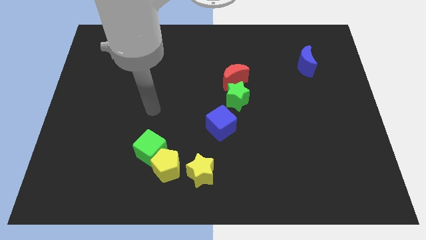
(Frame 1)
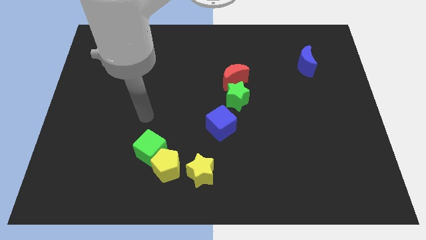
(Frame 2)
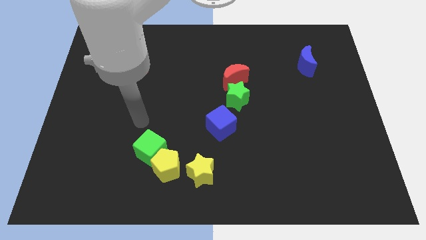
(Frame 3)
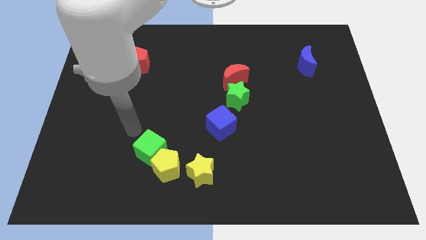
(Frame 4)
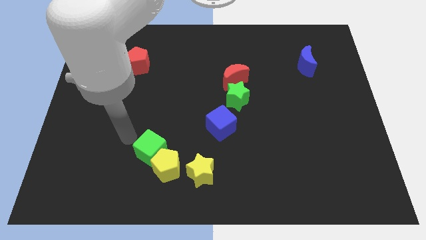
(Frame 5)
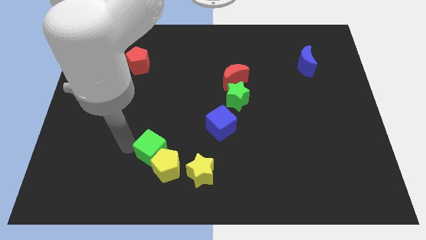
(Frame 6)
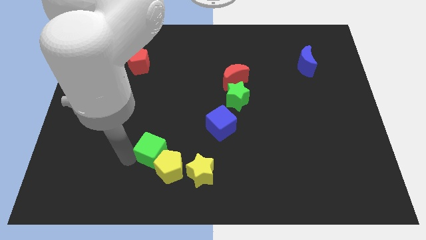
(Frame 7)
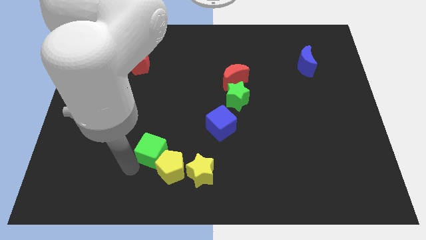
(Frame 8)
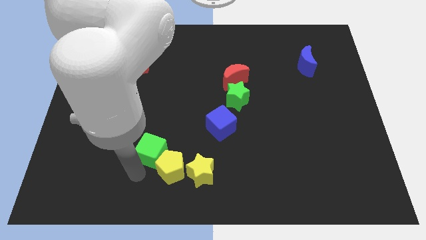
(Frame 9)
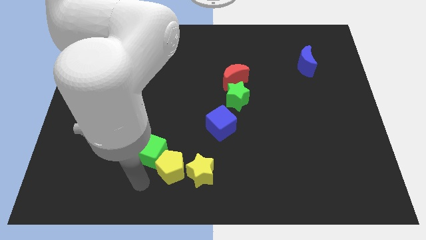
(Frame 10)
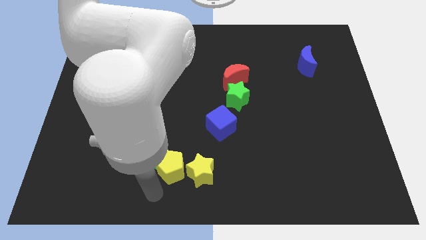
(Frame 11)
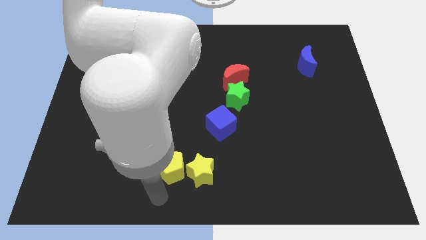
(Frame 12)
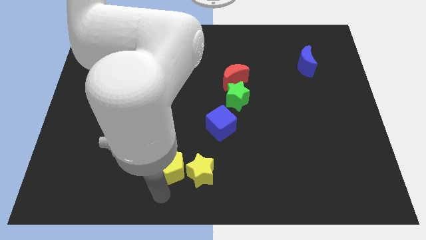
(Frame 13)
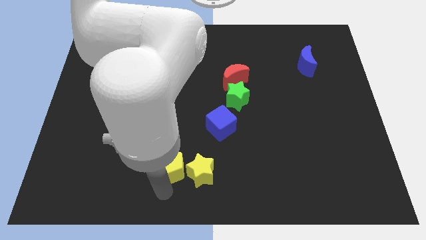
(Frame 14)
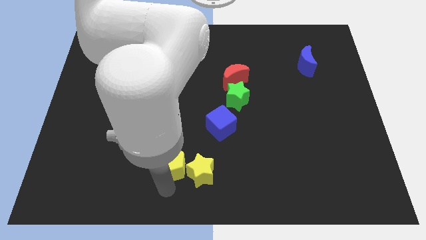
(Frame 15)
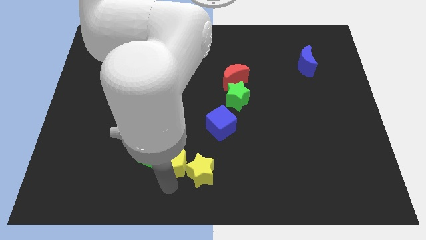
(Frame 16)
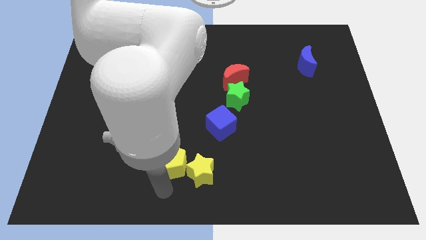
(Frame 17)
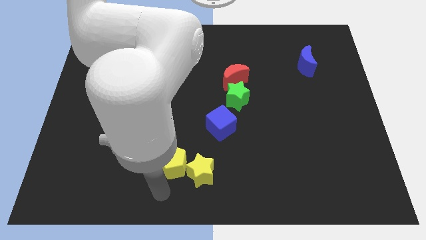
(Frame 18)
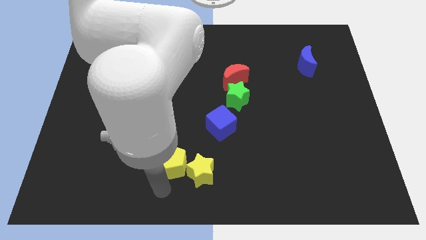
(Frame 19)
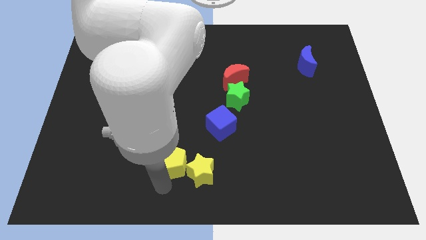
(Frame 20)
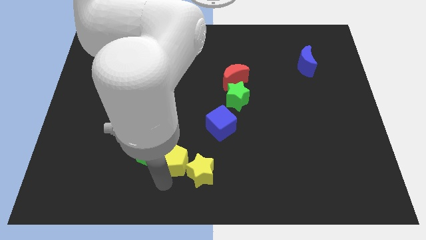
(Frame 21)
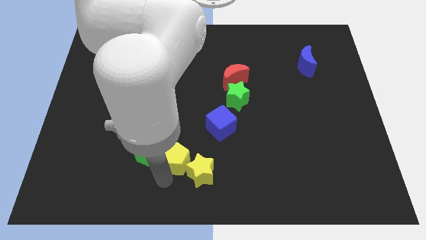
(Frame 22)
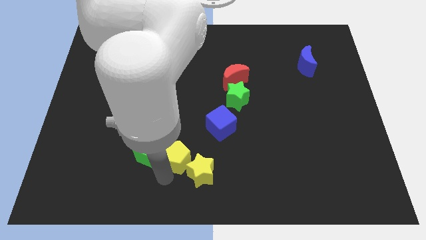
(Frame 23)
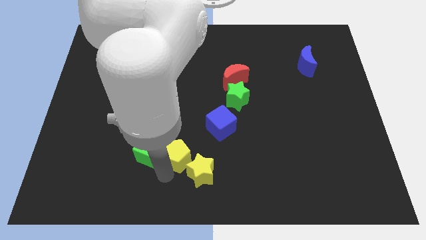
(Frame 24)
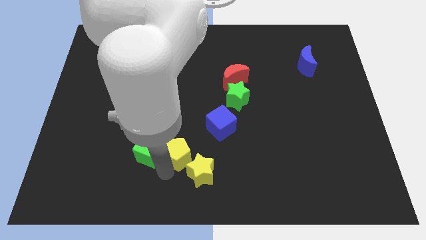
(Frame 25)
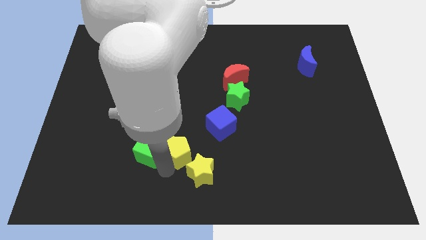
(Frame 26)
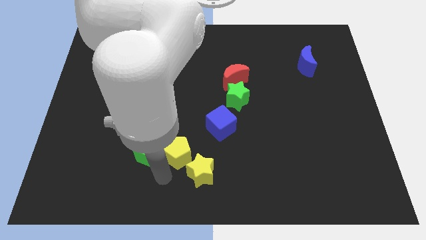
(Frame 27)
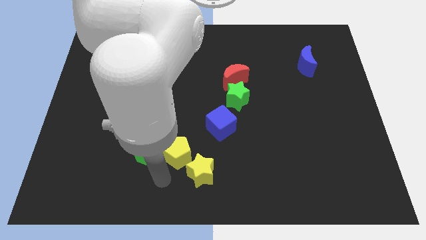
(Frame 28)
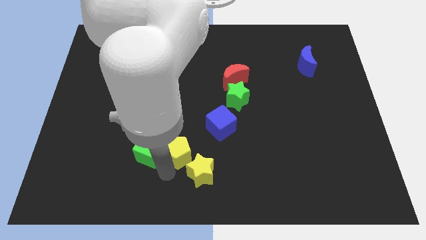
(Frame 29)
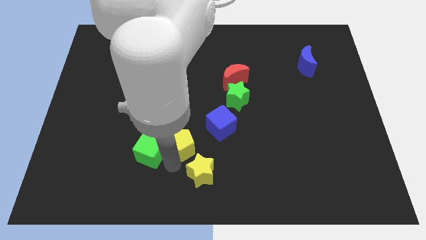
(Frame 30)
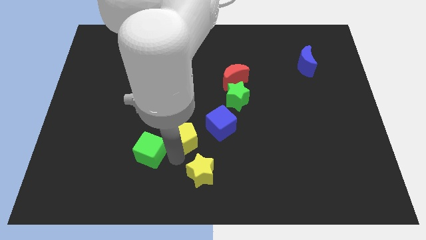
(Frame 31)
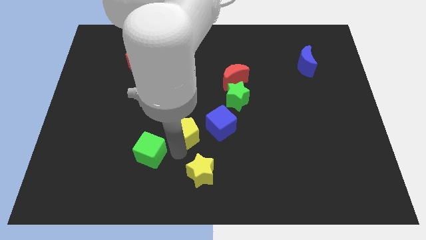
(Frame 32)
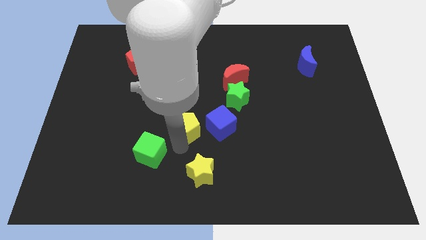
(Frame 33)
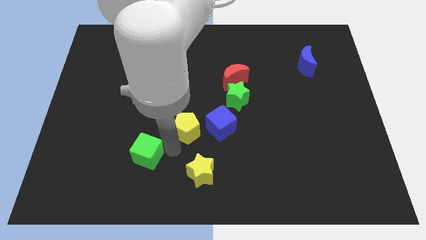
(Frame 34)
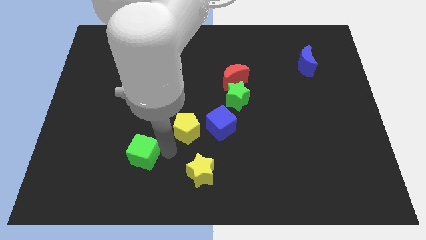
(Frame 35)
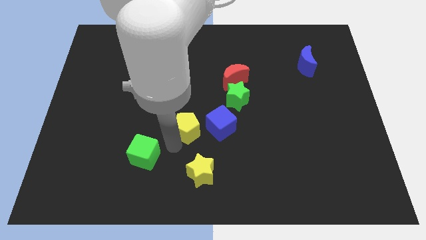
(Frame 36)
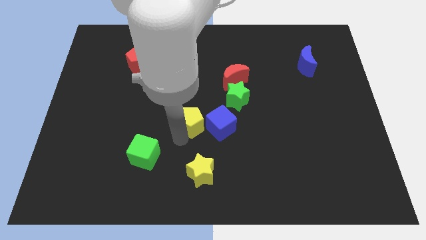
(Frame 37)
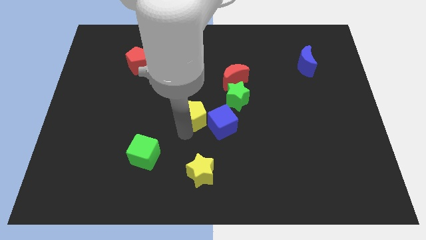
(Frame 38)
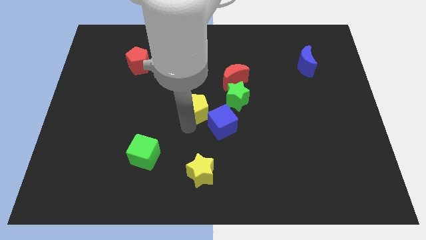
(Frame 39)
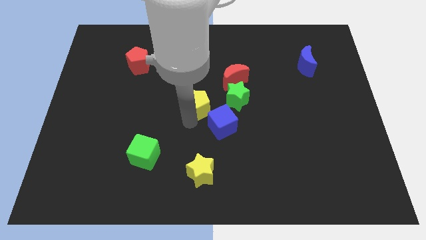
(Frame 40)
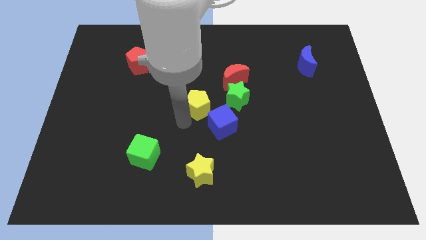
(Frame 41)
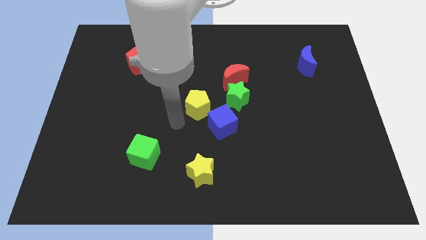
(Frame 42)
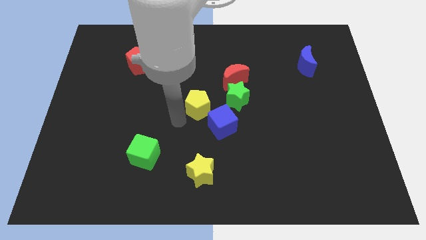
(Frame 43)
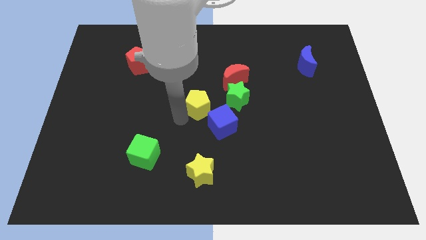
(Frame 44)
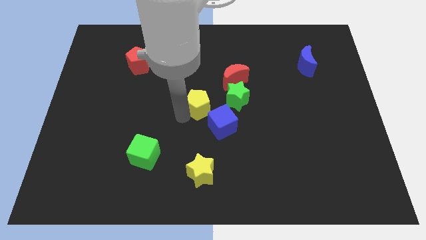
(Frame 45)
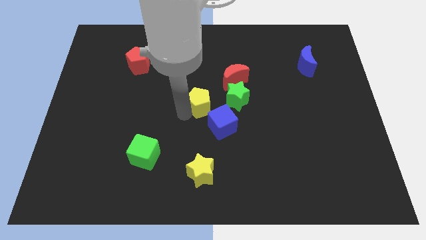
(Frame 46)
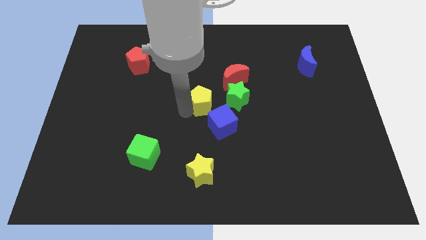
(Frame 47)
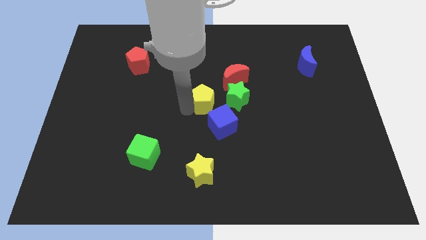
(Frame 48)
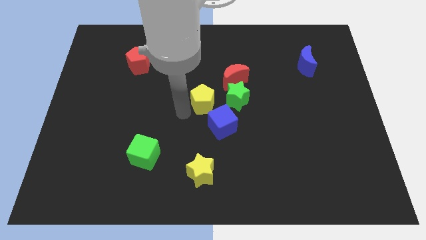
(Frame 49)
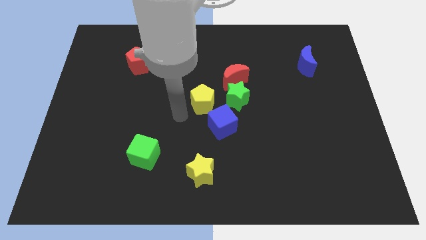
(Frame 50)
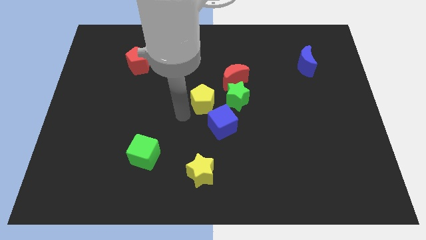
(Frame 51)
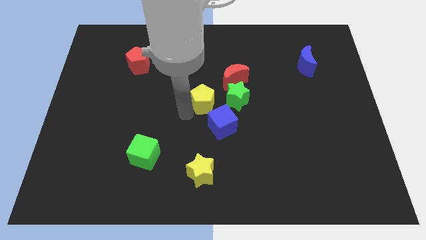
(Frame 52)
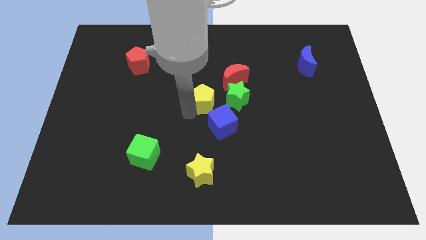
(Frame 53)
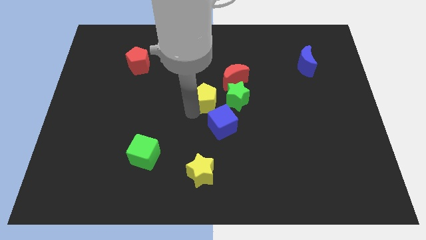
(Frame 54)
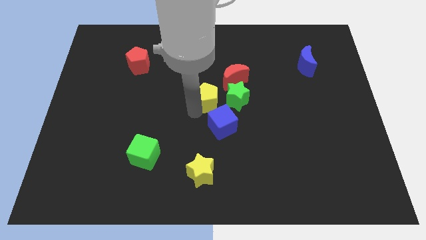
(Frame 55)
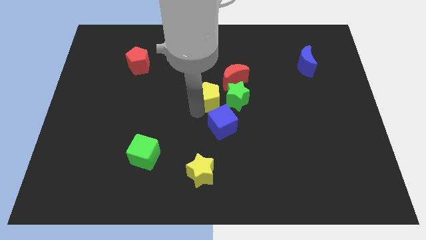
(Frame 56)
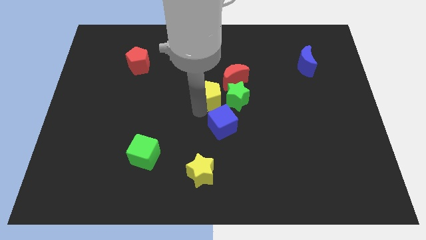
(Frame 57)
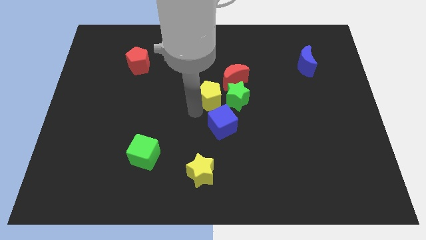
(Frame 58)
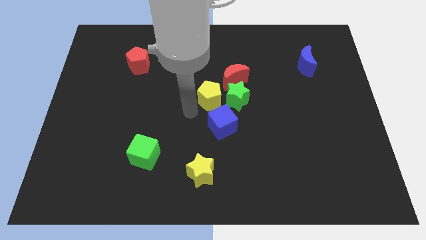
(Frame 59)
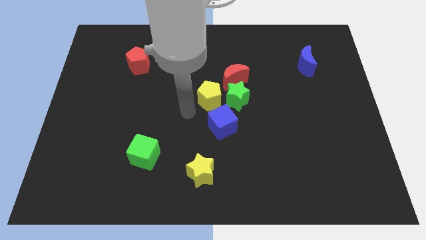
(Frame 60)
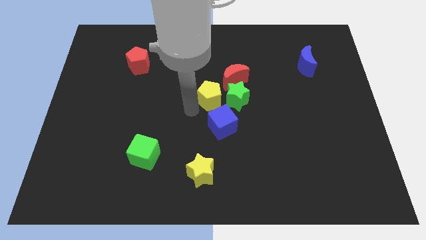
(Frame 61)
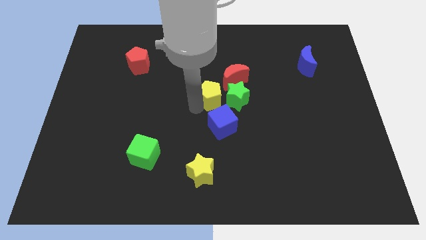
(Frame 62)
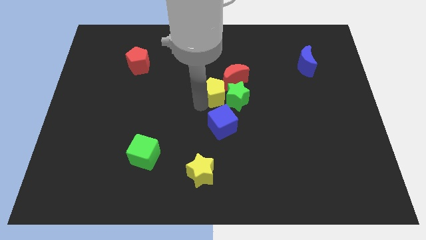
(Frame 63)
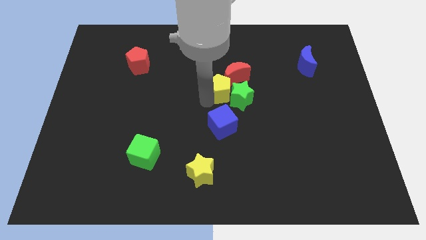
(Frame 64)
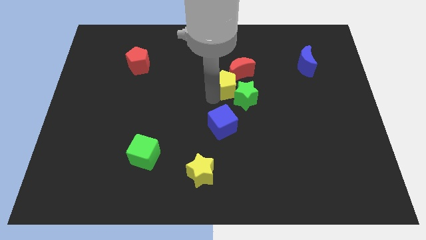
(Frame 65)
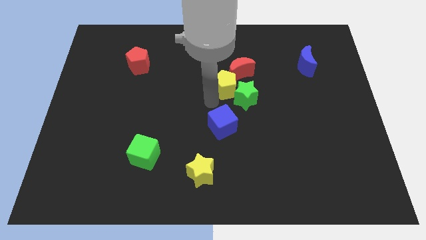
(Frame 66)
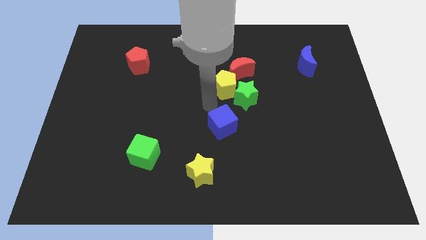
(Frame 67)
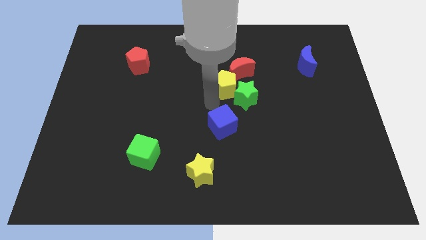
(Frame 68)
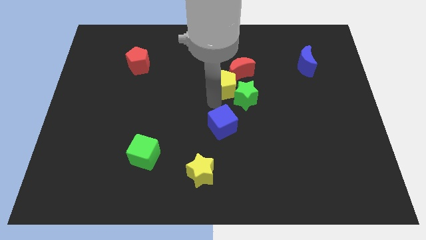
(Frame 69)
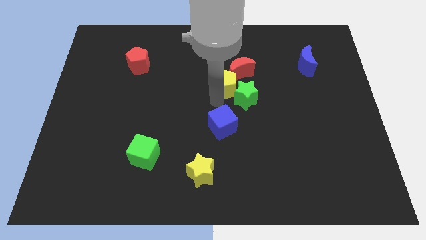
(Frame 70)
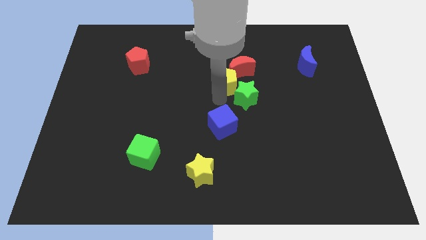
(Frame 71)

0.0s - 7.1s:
move the yellow pentagon next to the red moon

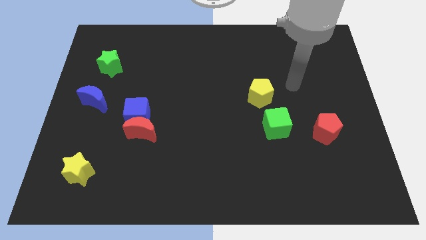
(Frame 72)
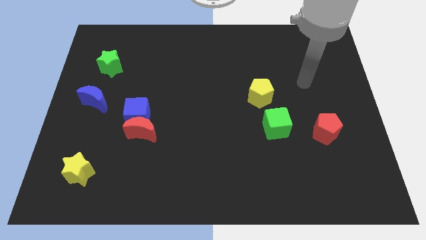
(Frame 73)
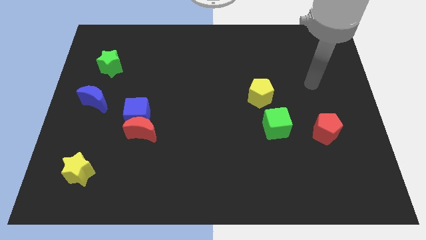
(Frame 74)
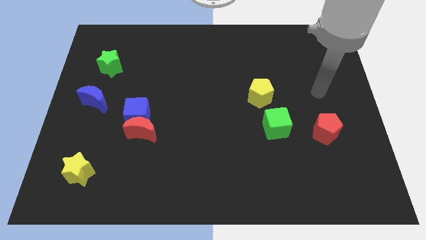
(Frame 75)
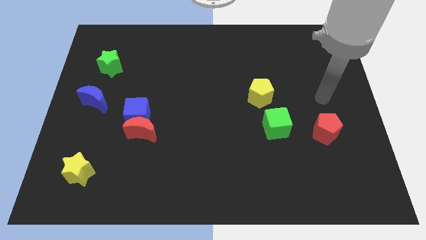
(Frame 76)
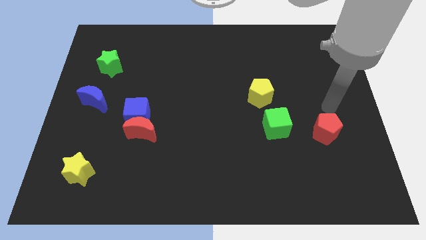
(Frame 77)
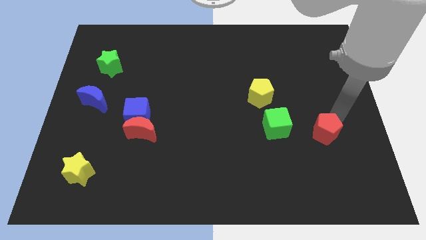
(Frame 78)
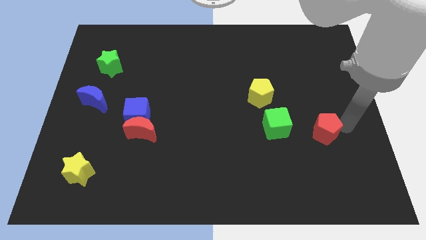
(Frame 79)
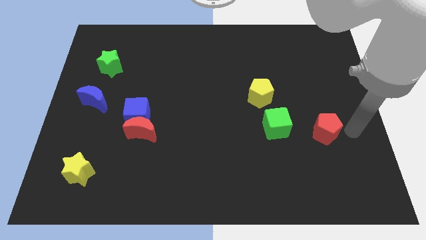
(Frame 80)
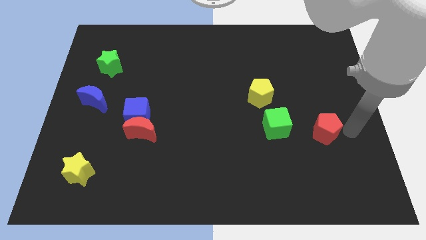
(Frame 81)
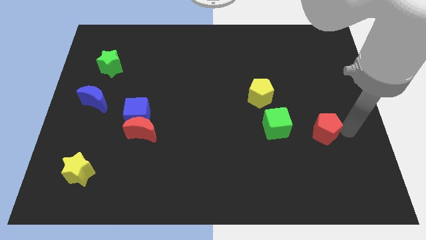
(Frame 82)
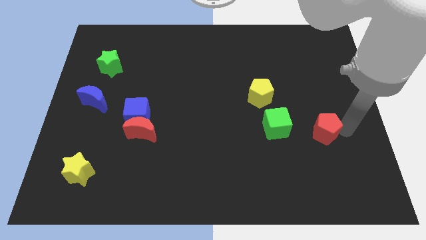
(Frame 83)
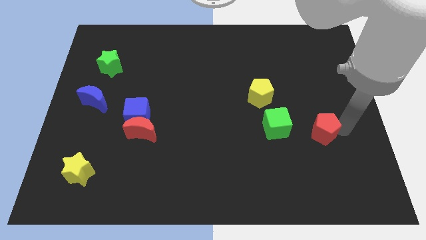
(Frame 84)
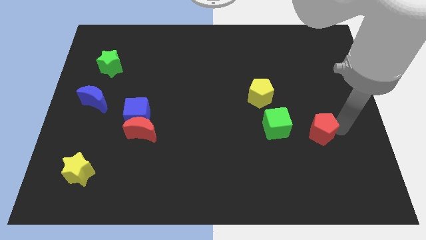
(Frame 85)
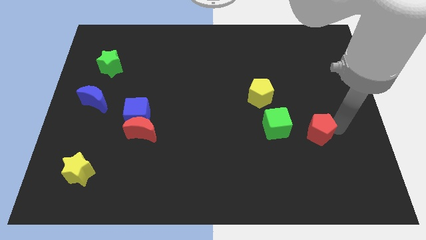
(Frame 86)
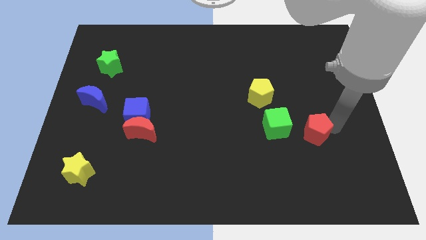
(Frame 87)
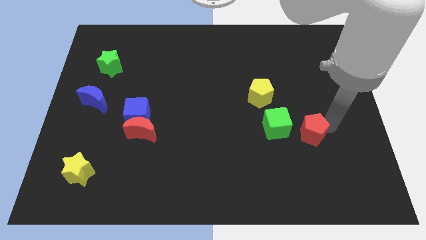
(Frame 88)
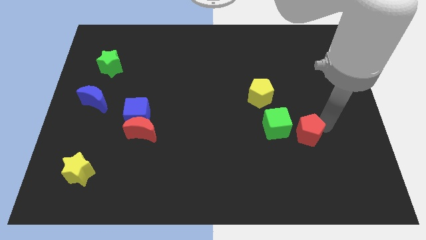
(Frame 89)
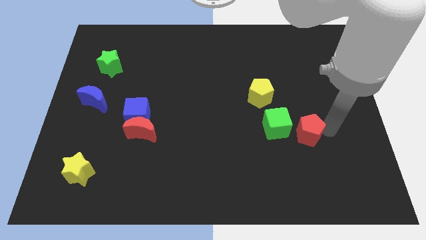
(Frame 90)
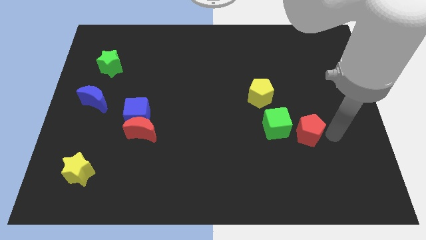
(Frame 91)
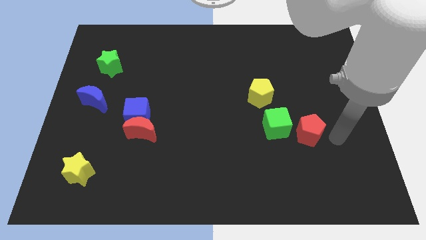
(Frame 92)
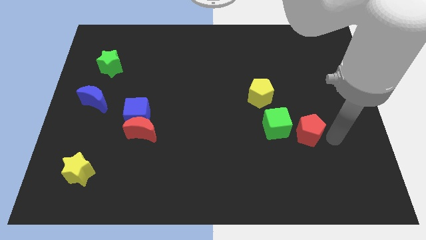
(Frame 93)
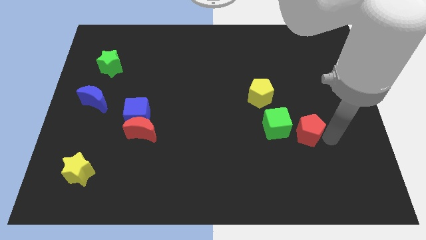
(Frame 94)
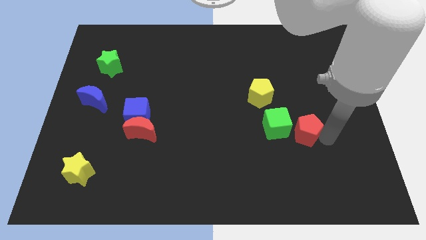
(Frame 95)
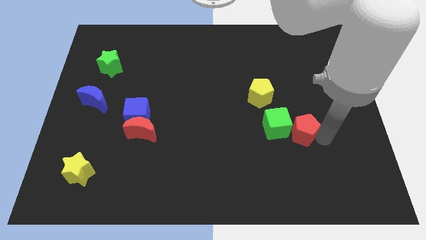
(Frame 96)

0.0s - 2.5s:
push the red pentagon next to the green cube
